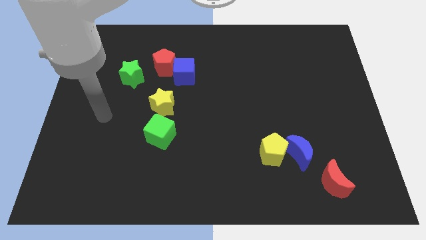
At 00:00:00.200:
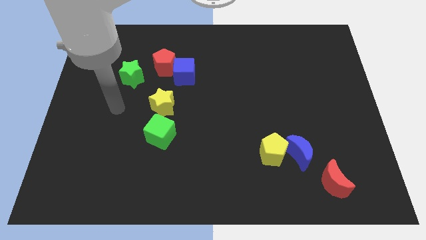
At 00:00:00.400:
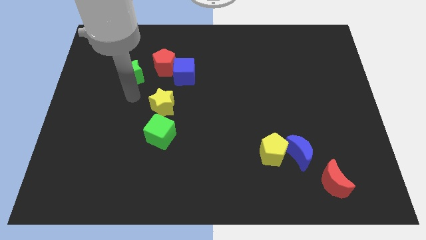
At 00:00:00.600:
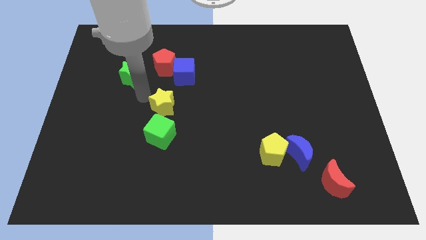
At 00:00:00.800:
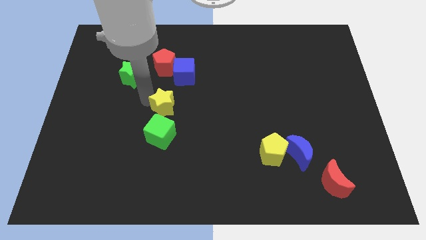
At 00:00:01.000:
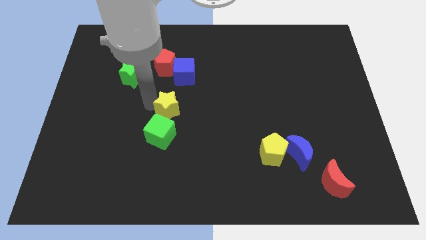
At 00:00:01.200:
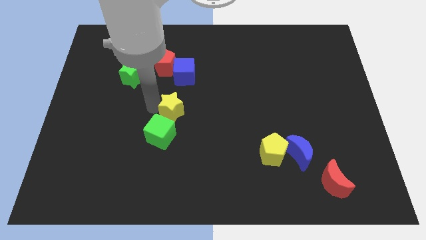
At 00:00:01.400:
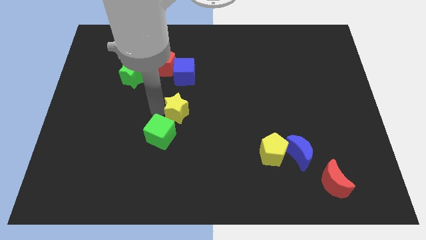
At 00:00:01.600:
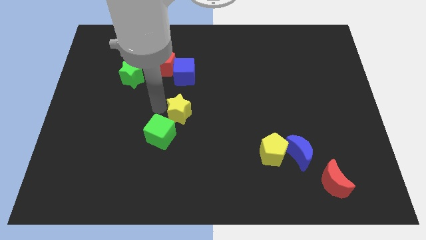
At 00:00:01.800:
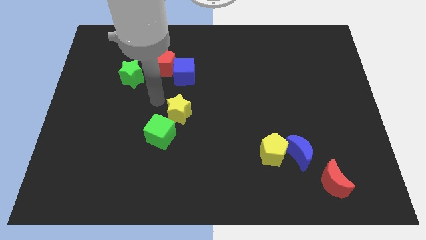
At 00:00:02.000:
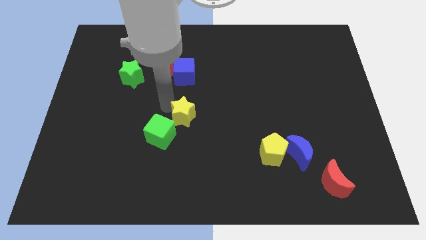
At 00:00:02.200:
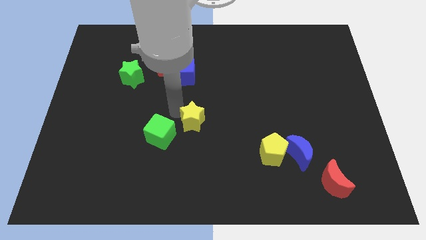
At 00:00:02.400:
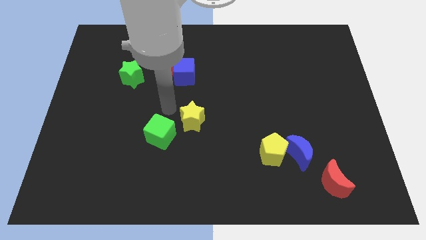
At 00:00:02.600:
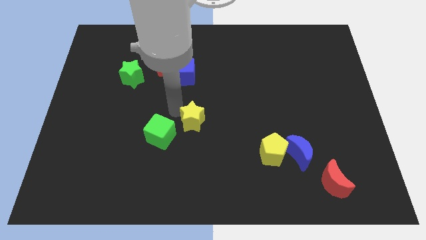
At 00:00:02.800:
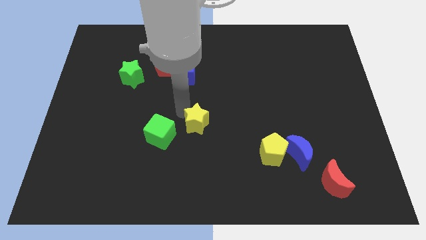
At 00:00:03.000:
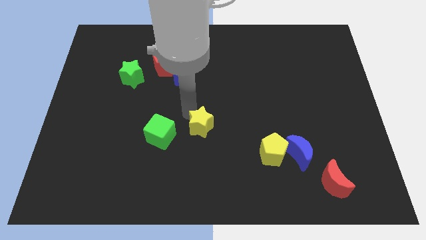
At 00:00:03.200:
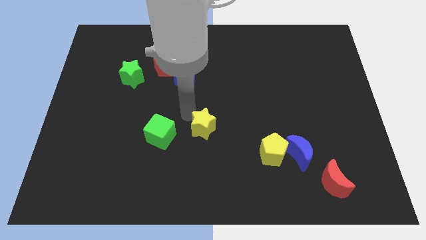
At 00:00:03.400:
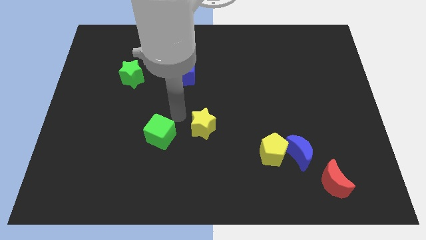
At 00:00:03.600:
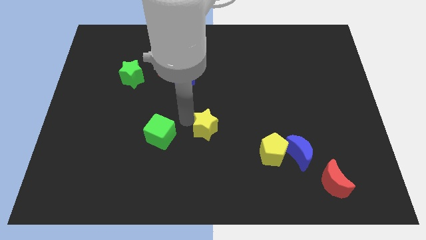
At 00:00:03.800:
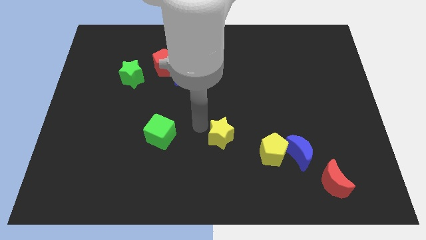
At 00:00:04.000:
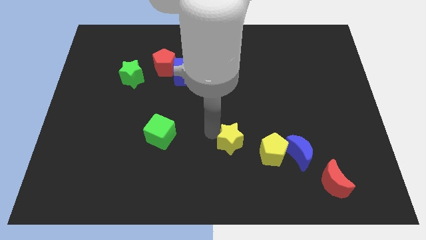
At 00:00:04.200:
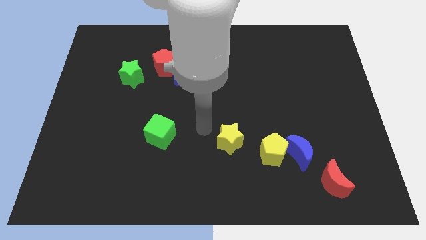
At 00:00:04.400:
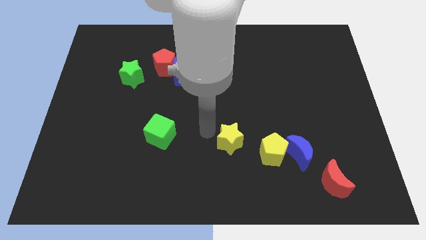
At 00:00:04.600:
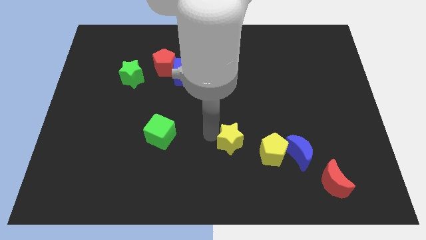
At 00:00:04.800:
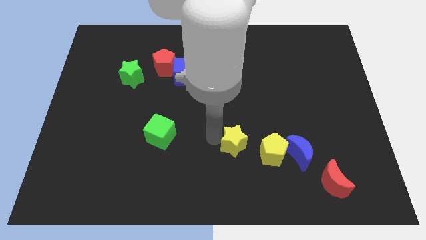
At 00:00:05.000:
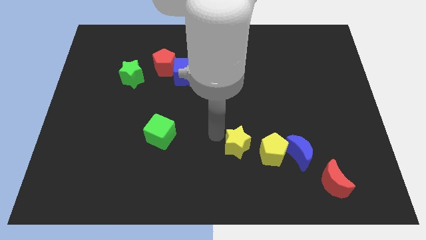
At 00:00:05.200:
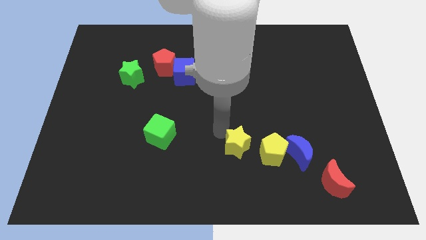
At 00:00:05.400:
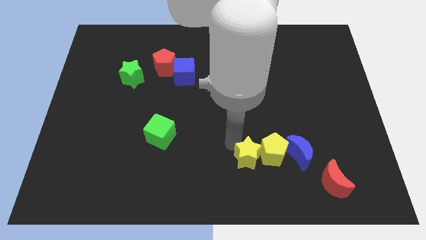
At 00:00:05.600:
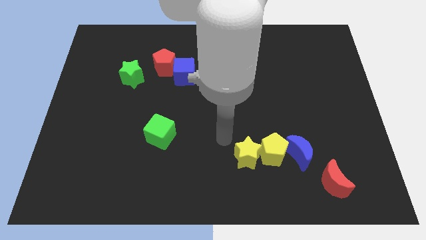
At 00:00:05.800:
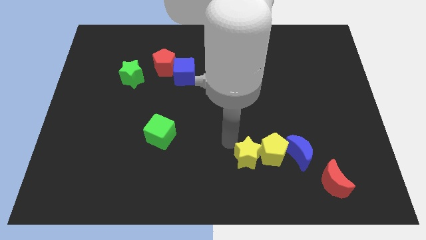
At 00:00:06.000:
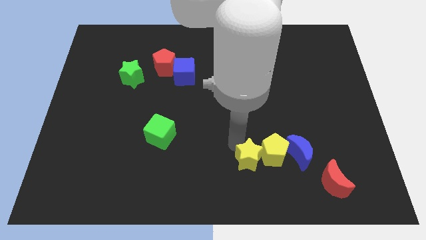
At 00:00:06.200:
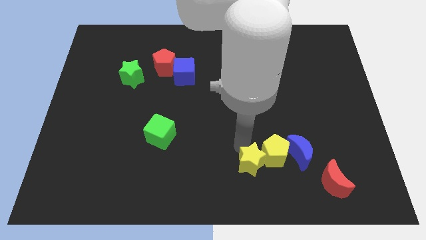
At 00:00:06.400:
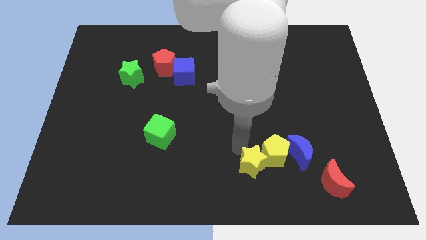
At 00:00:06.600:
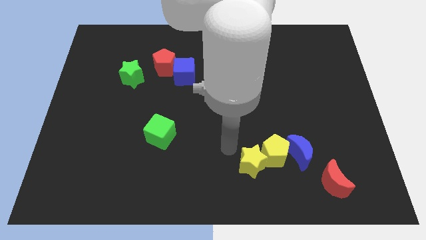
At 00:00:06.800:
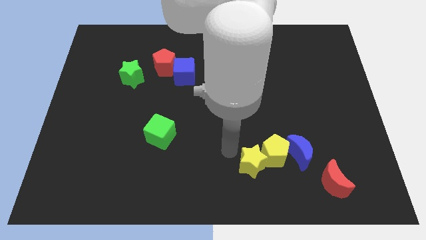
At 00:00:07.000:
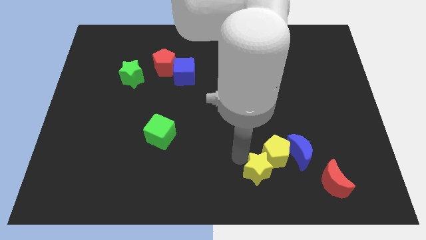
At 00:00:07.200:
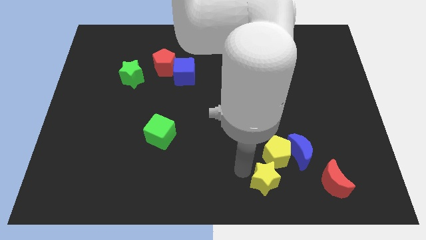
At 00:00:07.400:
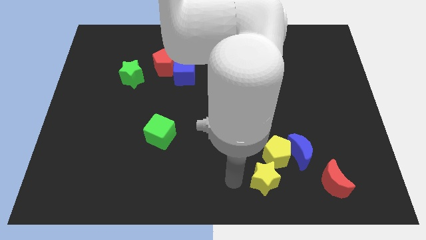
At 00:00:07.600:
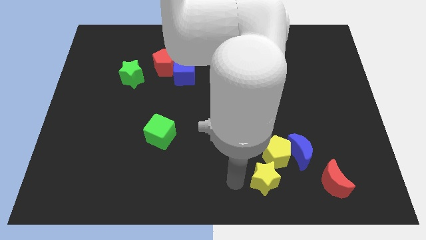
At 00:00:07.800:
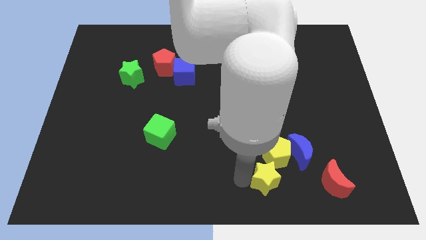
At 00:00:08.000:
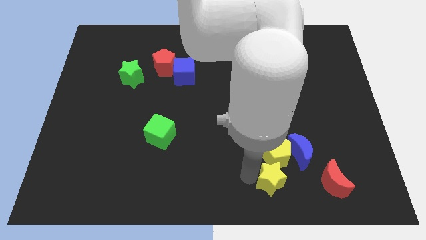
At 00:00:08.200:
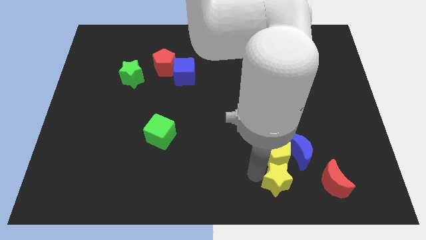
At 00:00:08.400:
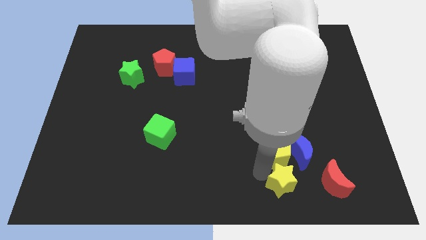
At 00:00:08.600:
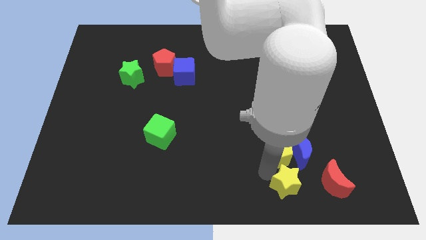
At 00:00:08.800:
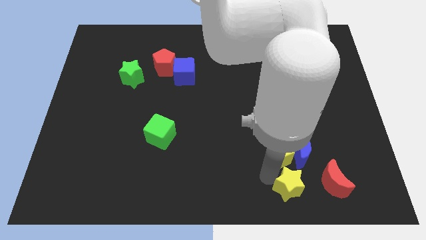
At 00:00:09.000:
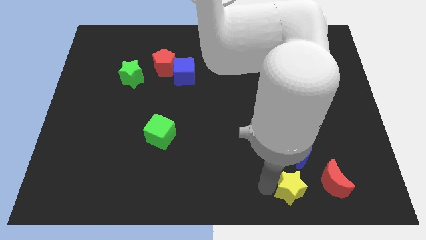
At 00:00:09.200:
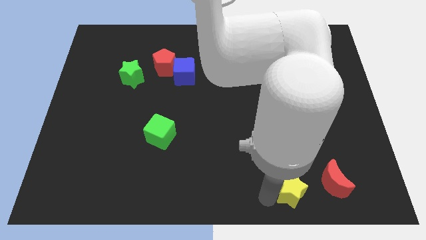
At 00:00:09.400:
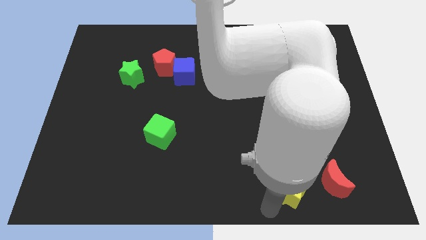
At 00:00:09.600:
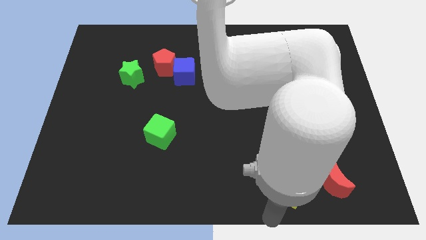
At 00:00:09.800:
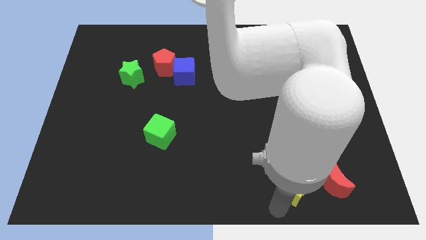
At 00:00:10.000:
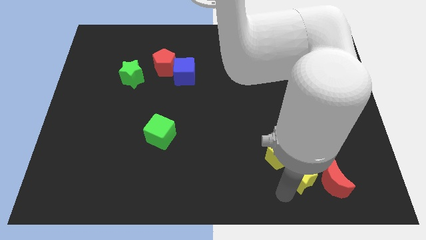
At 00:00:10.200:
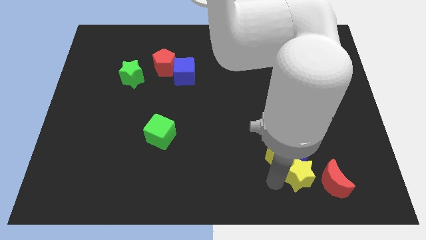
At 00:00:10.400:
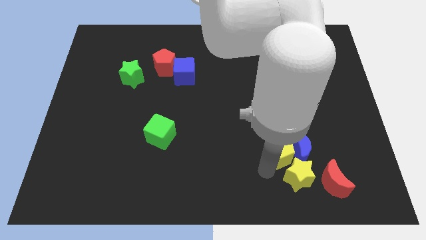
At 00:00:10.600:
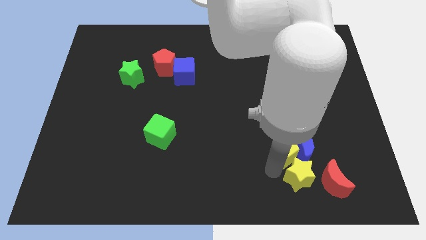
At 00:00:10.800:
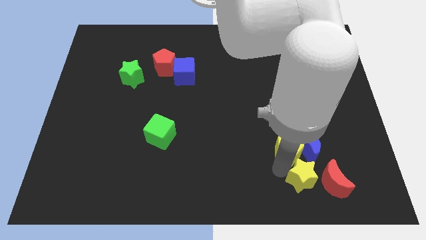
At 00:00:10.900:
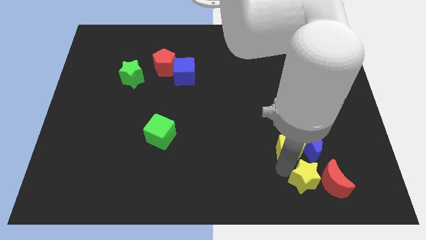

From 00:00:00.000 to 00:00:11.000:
slide the yellow star towards the red moon

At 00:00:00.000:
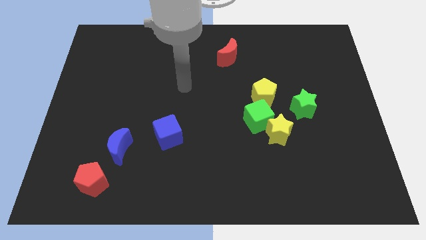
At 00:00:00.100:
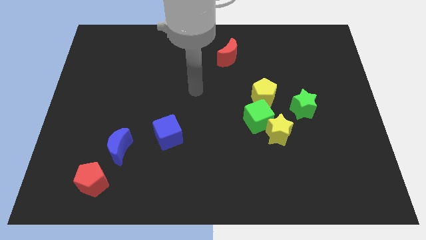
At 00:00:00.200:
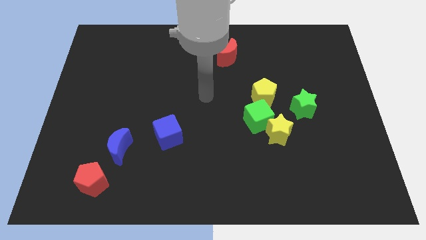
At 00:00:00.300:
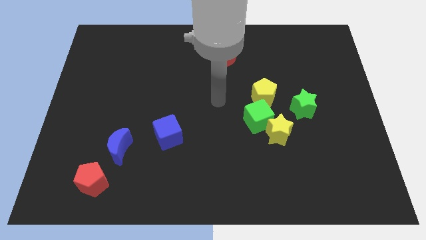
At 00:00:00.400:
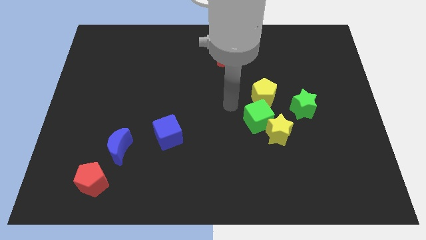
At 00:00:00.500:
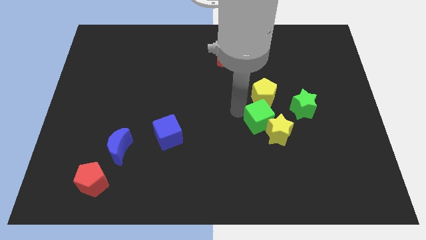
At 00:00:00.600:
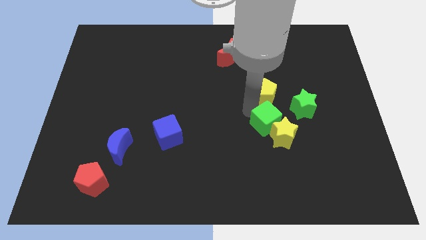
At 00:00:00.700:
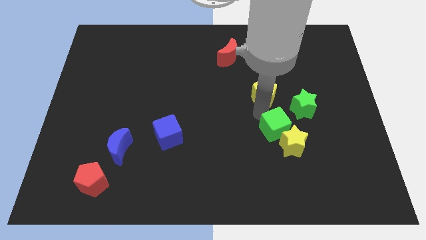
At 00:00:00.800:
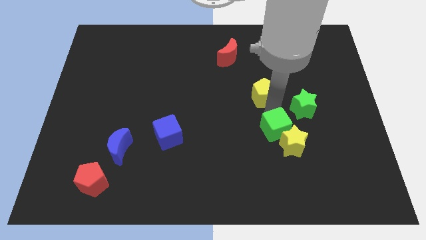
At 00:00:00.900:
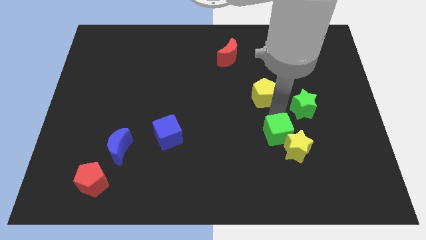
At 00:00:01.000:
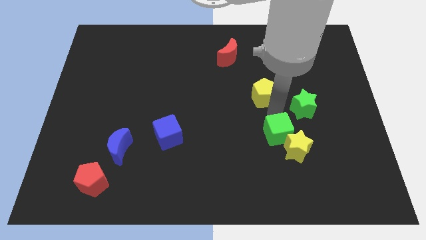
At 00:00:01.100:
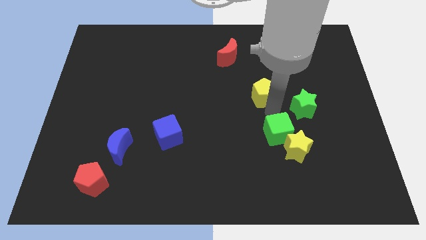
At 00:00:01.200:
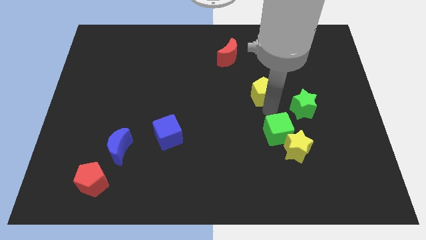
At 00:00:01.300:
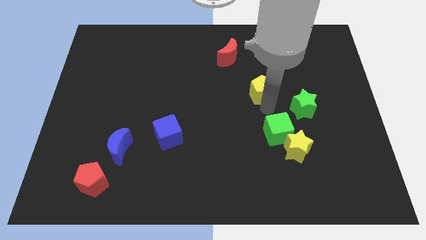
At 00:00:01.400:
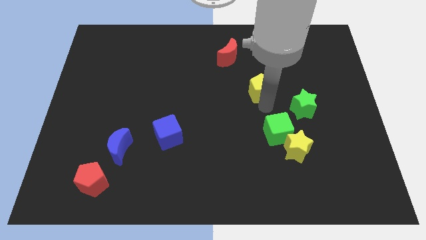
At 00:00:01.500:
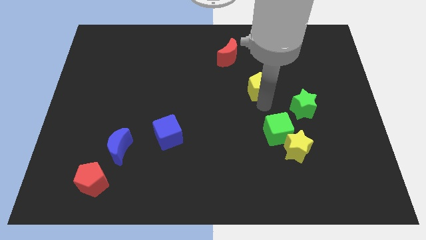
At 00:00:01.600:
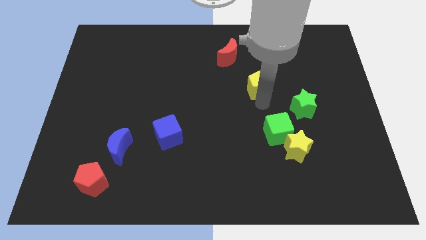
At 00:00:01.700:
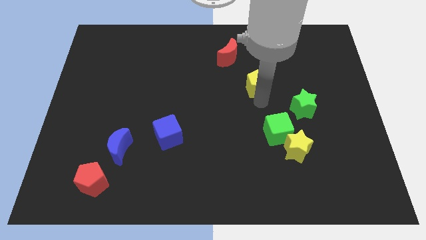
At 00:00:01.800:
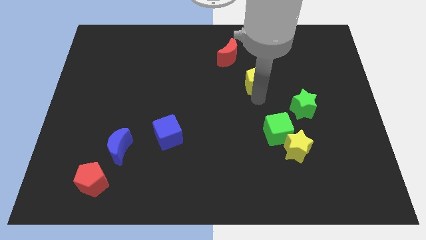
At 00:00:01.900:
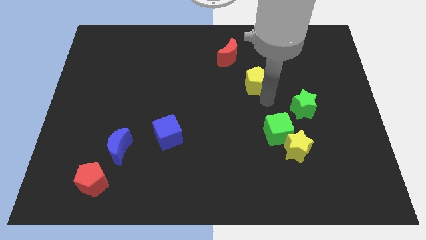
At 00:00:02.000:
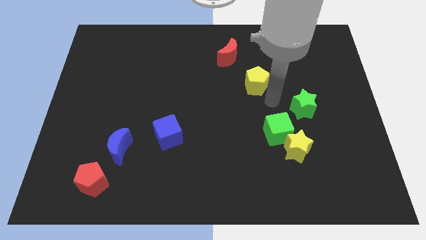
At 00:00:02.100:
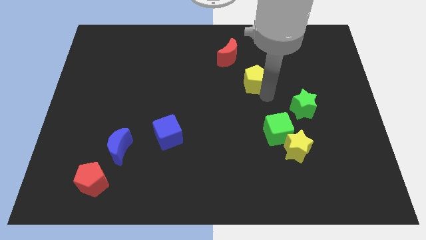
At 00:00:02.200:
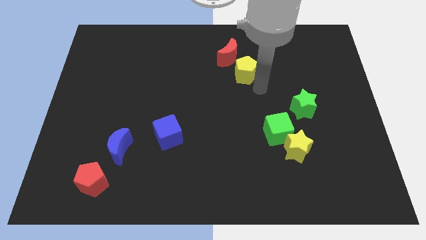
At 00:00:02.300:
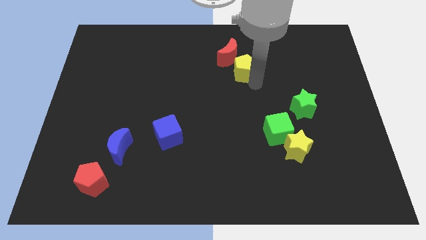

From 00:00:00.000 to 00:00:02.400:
put the yellow pentagon towards the red moon
